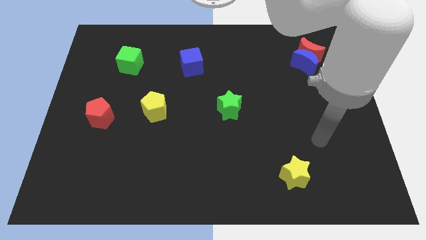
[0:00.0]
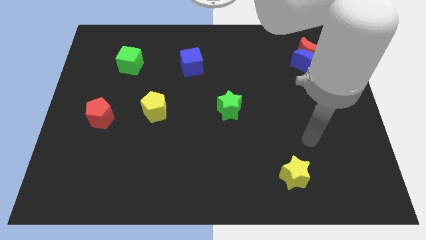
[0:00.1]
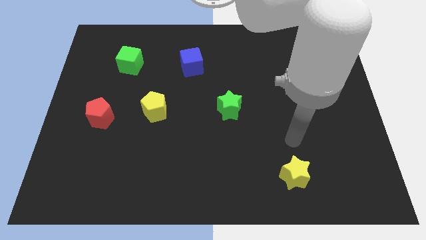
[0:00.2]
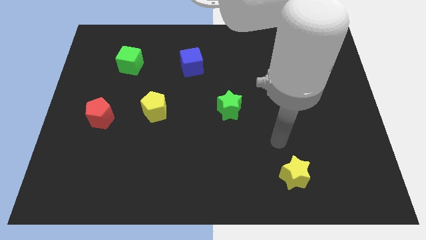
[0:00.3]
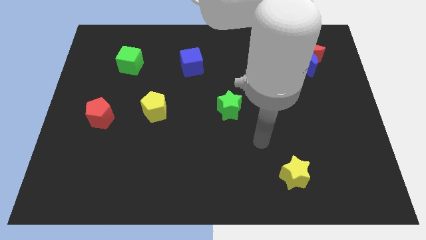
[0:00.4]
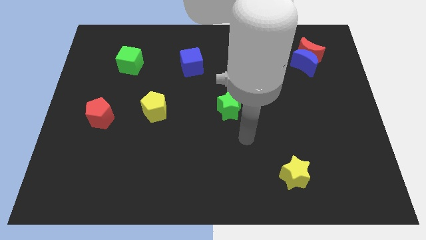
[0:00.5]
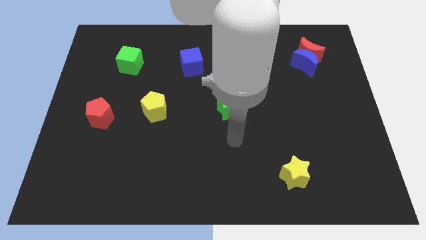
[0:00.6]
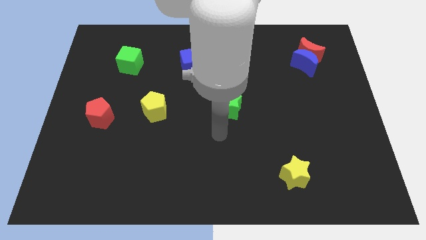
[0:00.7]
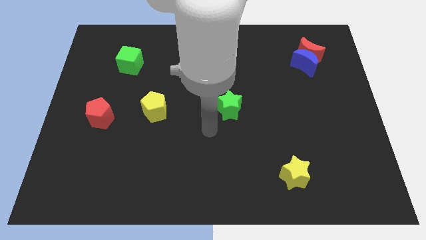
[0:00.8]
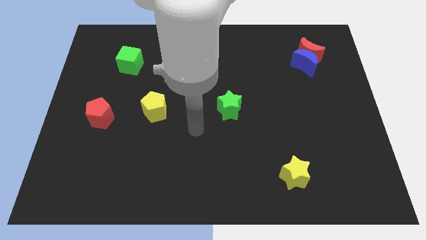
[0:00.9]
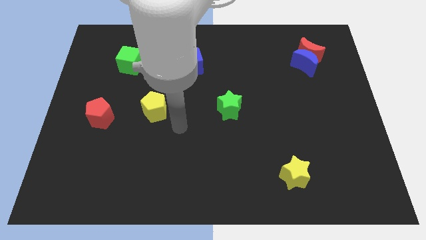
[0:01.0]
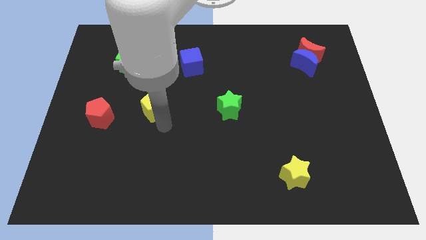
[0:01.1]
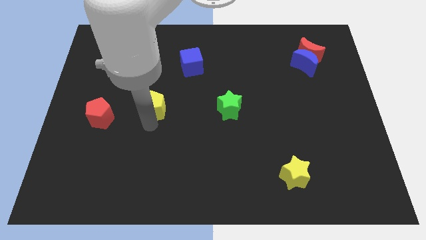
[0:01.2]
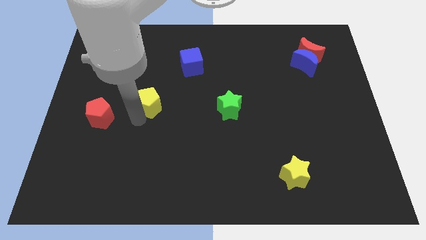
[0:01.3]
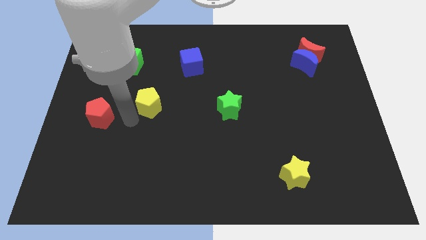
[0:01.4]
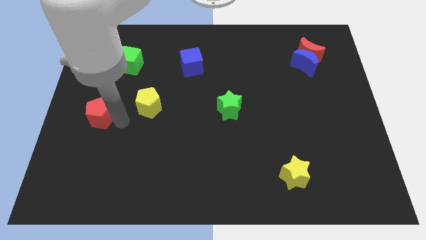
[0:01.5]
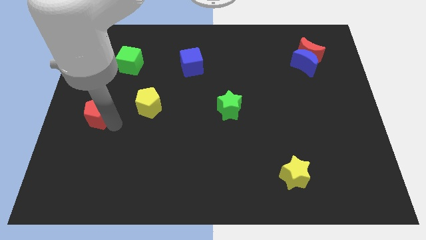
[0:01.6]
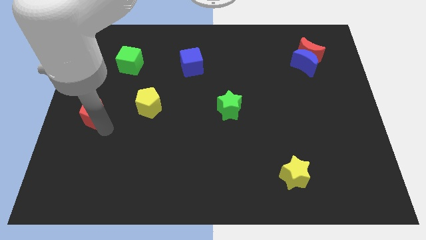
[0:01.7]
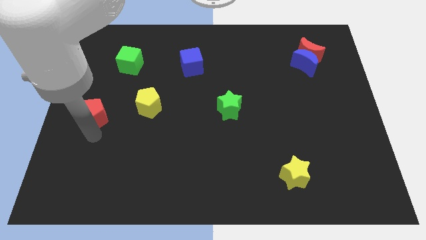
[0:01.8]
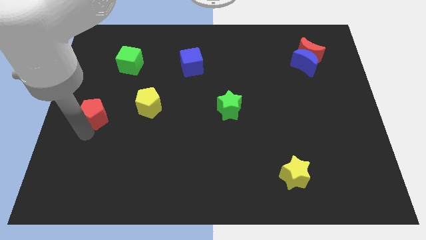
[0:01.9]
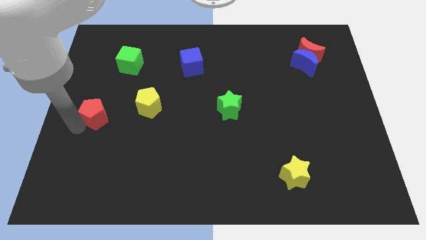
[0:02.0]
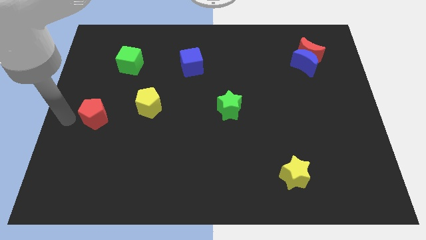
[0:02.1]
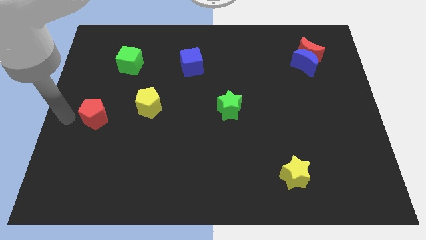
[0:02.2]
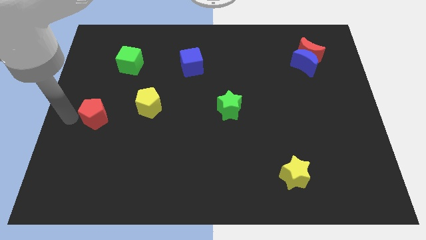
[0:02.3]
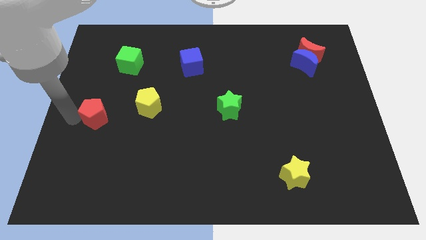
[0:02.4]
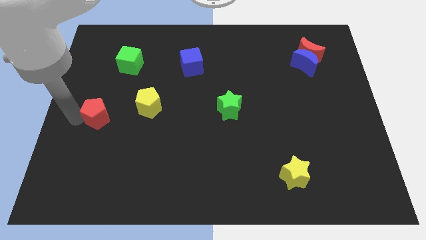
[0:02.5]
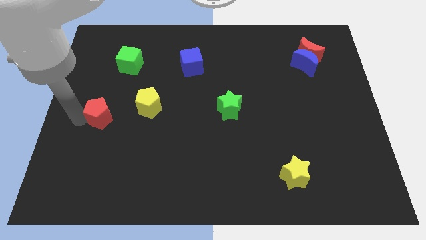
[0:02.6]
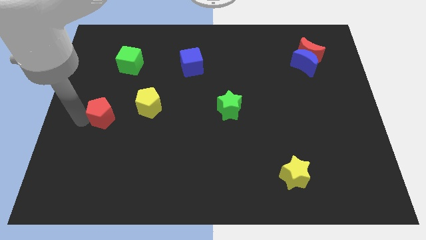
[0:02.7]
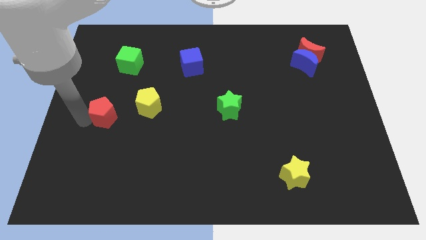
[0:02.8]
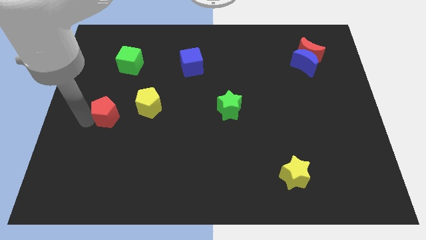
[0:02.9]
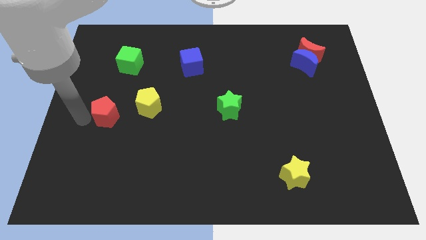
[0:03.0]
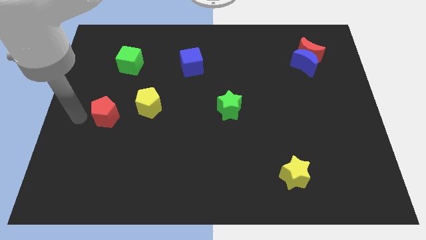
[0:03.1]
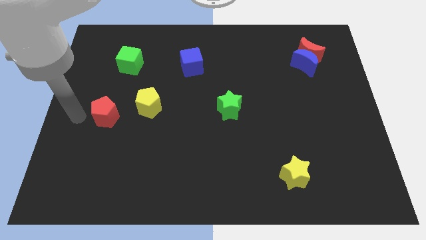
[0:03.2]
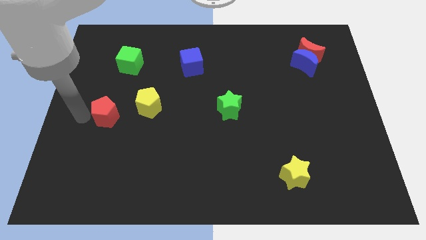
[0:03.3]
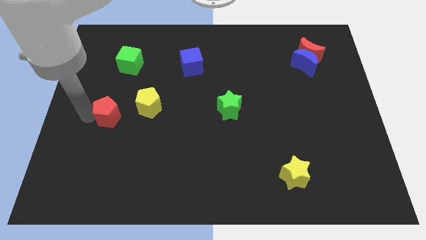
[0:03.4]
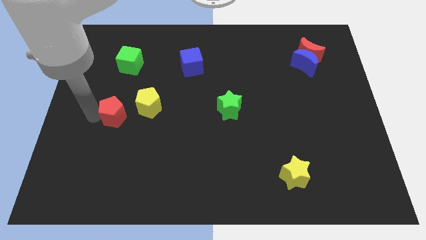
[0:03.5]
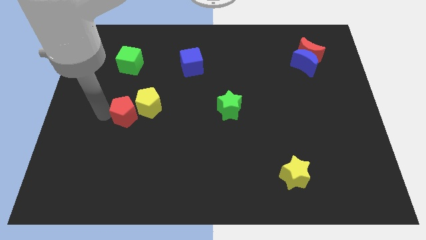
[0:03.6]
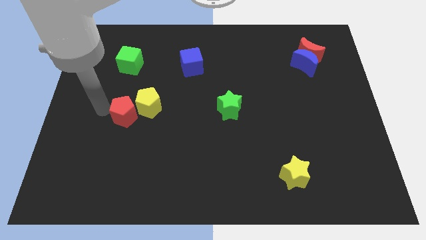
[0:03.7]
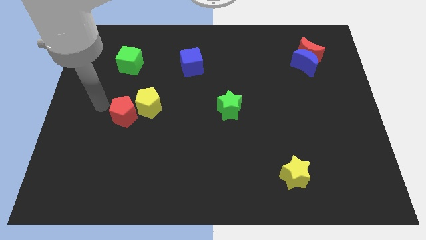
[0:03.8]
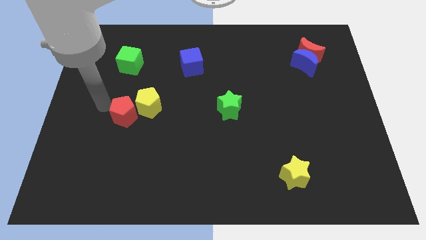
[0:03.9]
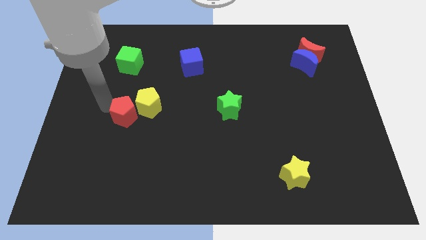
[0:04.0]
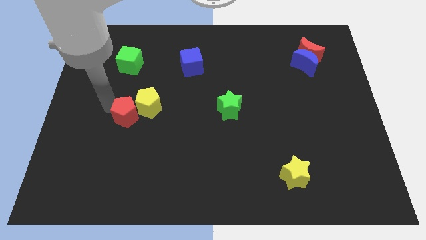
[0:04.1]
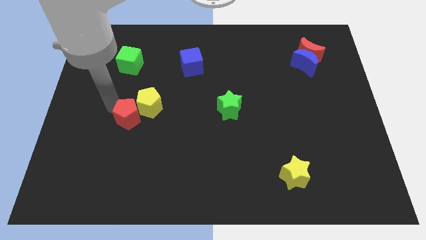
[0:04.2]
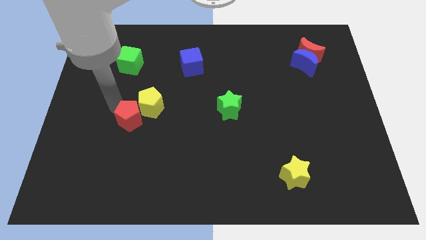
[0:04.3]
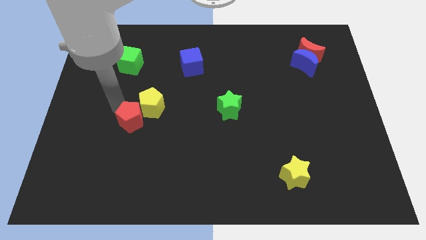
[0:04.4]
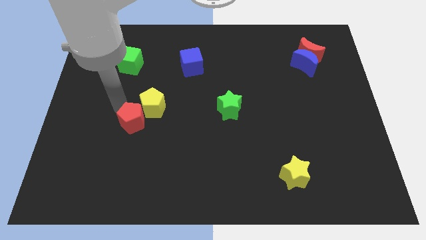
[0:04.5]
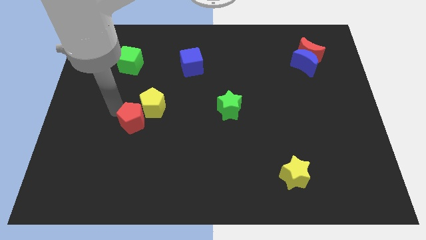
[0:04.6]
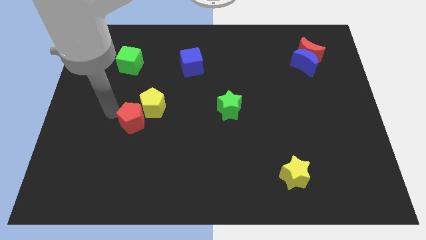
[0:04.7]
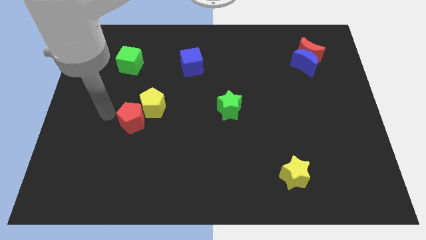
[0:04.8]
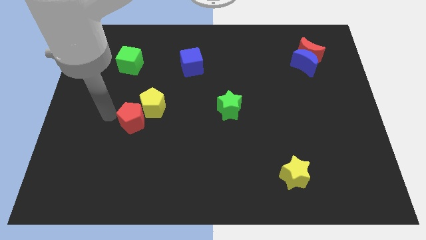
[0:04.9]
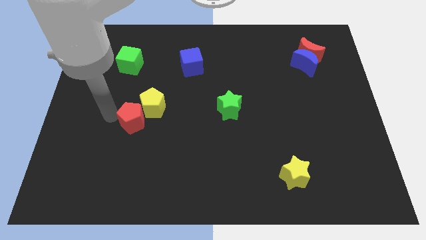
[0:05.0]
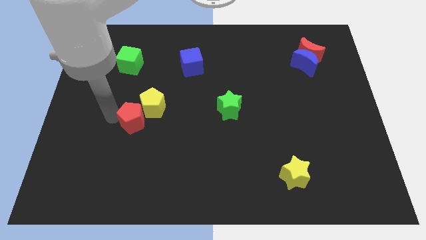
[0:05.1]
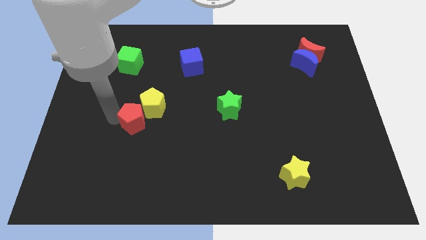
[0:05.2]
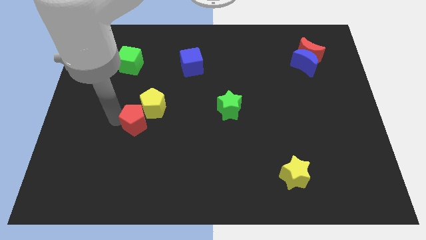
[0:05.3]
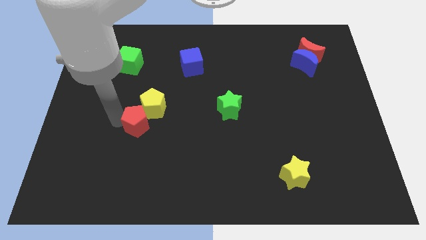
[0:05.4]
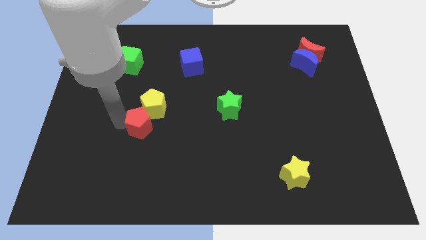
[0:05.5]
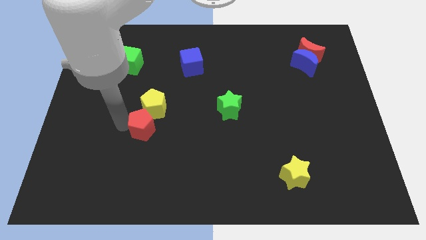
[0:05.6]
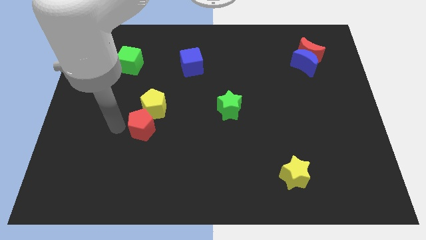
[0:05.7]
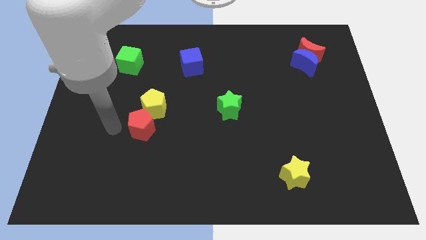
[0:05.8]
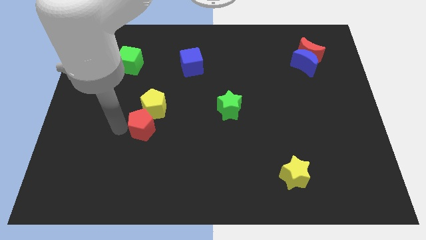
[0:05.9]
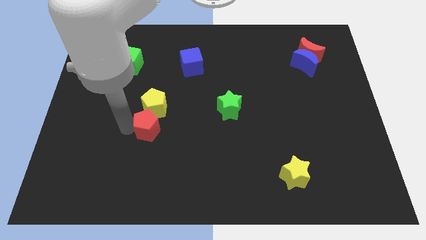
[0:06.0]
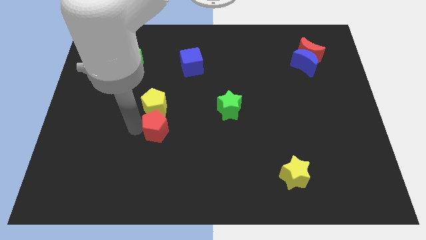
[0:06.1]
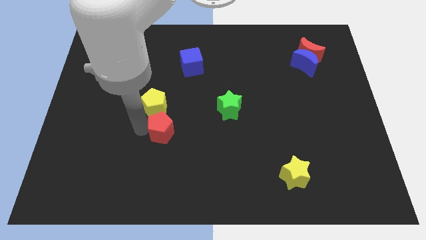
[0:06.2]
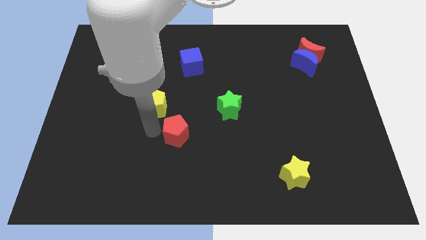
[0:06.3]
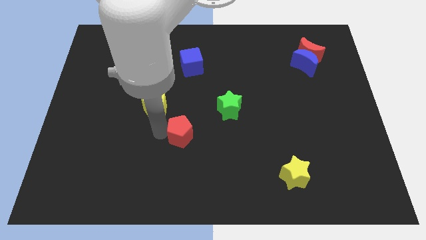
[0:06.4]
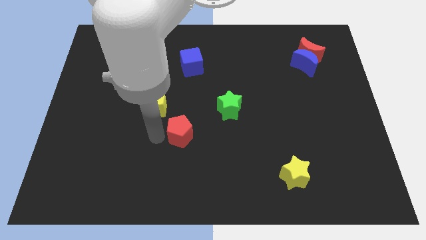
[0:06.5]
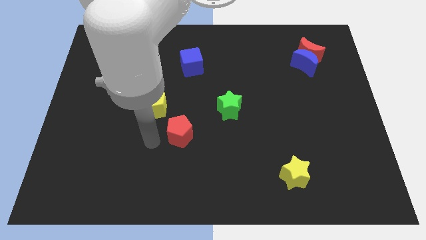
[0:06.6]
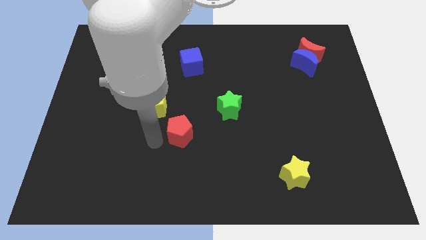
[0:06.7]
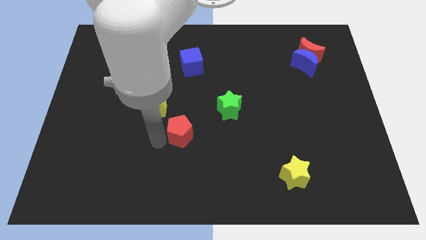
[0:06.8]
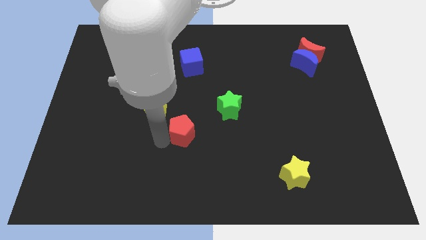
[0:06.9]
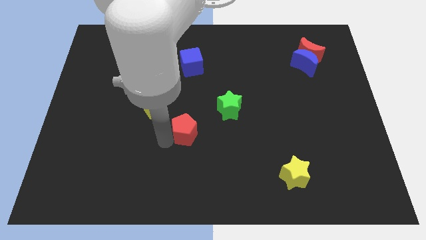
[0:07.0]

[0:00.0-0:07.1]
slide the red pentagon to the bottom left side of the green star

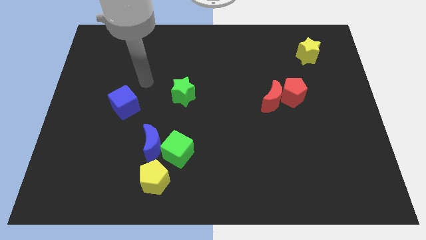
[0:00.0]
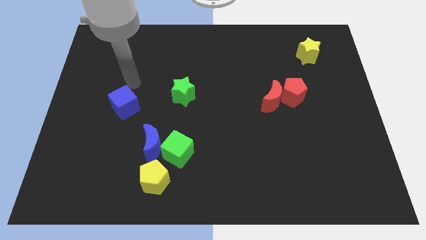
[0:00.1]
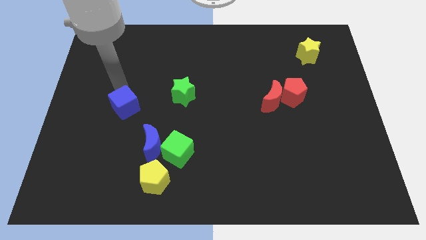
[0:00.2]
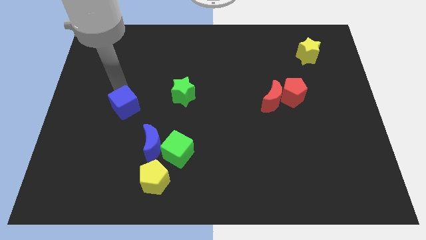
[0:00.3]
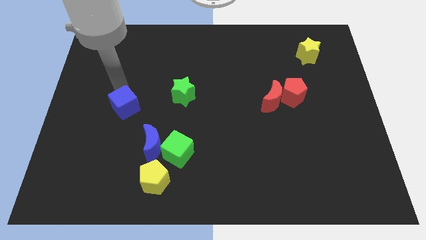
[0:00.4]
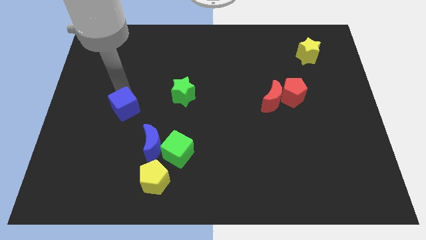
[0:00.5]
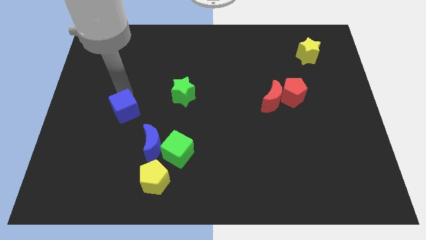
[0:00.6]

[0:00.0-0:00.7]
move the blue cube to the top left side of the blue moon
